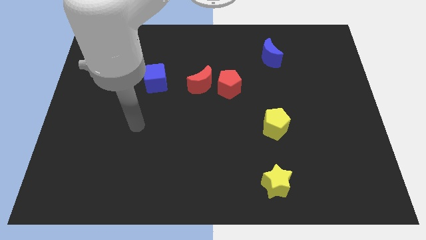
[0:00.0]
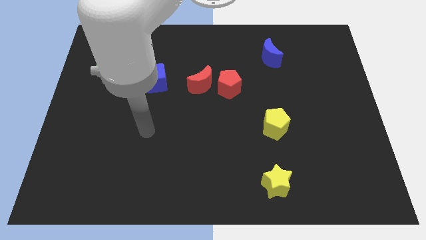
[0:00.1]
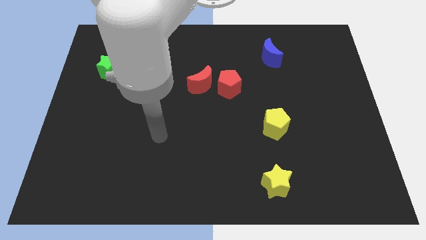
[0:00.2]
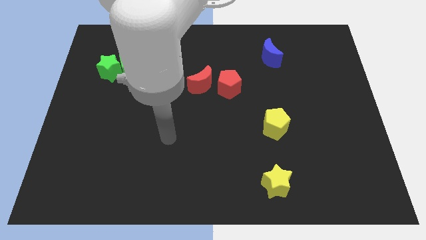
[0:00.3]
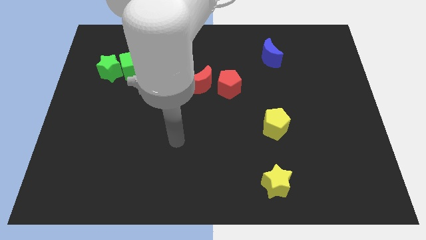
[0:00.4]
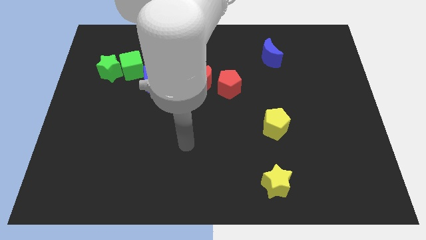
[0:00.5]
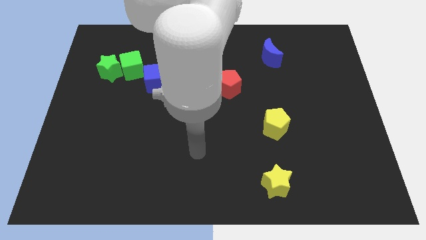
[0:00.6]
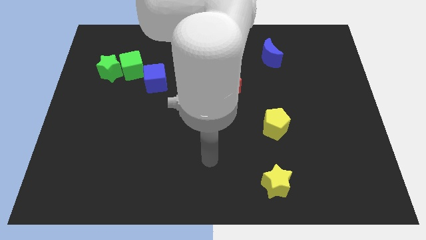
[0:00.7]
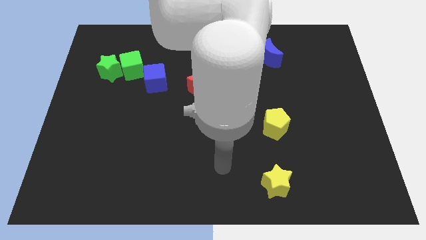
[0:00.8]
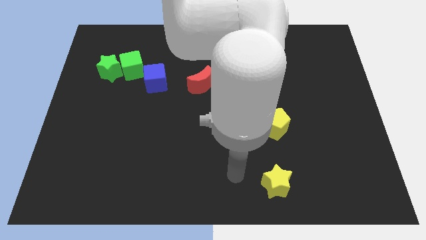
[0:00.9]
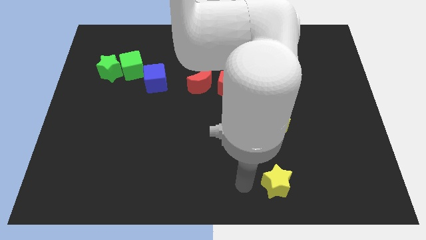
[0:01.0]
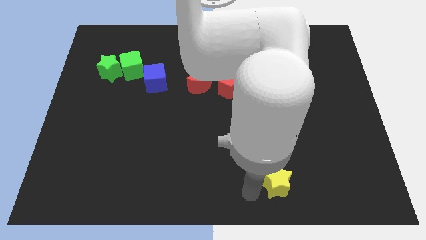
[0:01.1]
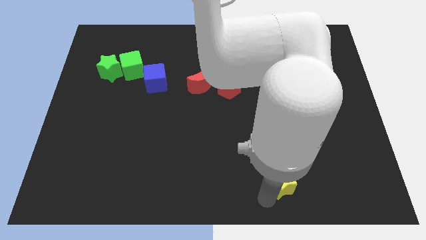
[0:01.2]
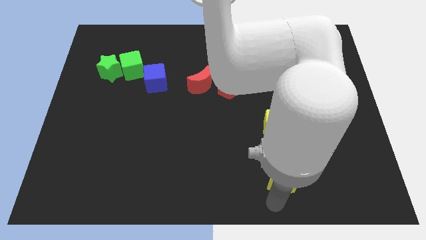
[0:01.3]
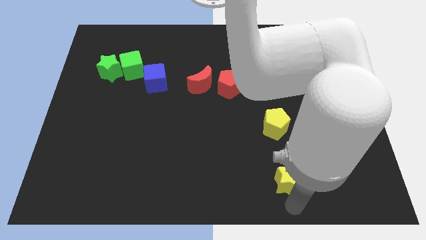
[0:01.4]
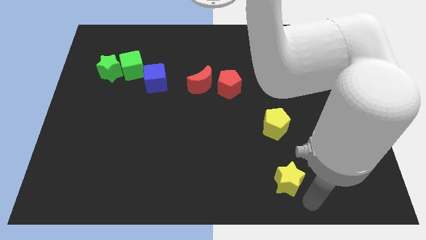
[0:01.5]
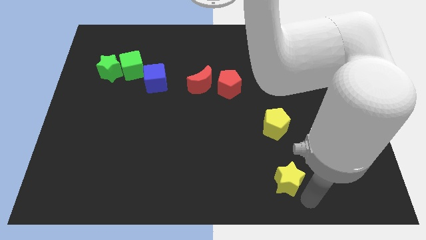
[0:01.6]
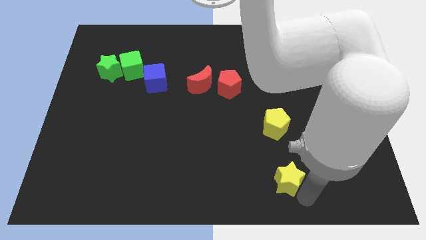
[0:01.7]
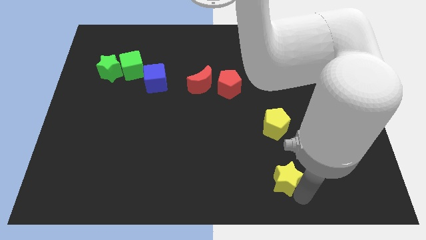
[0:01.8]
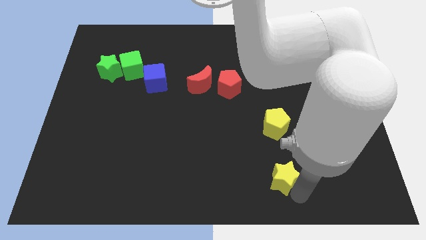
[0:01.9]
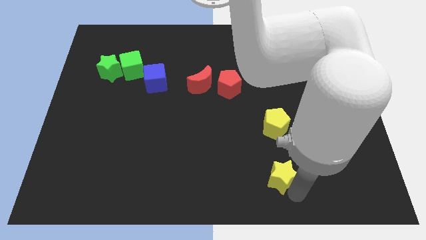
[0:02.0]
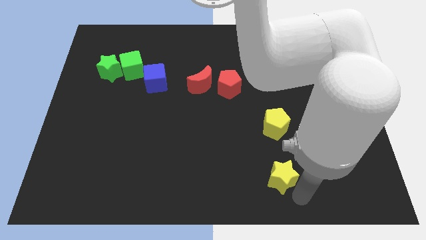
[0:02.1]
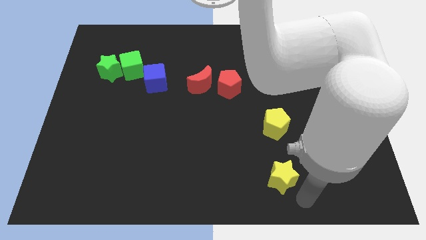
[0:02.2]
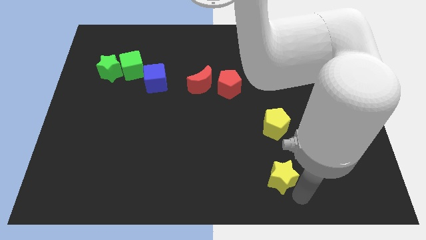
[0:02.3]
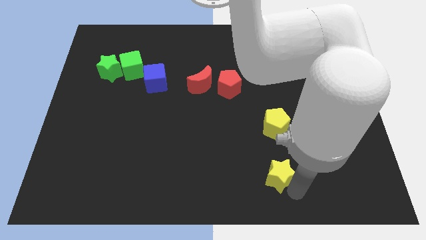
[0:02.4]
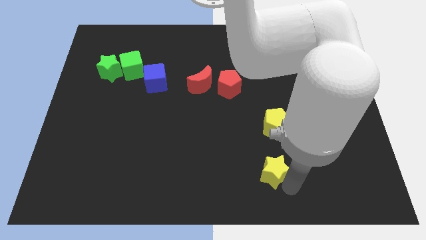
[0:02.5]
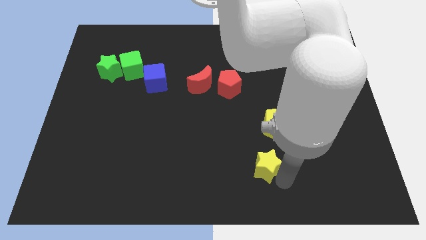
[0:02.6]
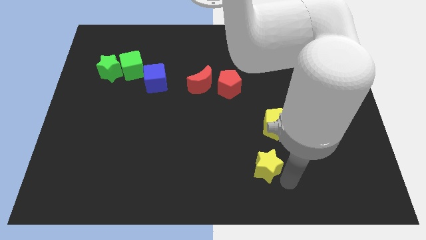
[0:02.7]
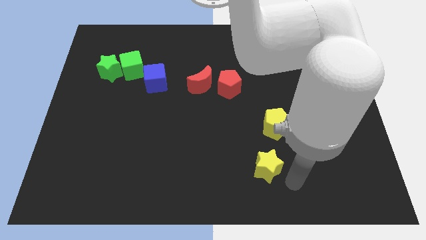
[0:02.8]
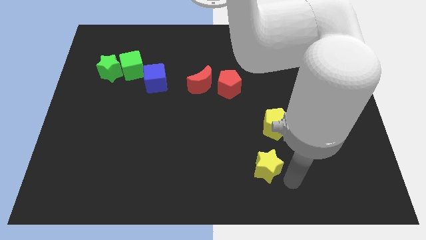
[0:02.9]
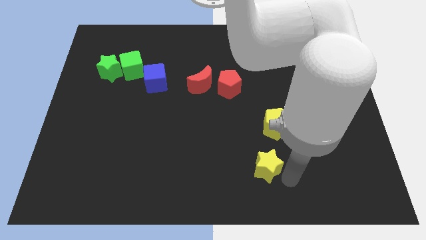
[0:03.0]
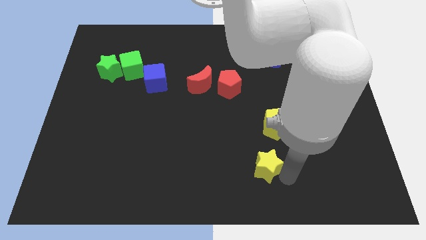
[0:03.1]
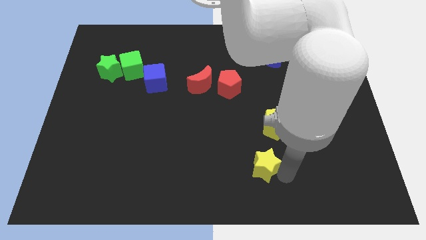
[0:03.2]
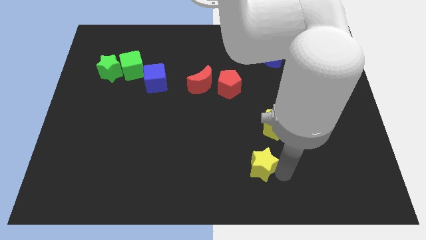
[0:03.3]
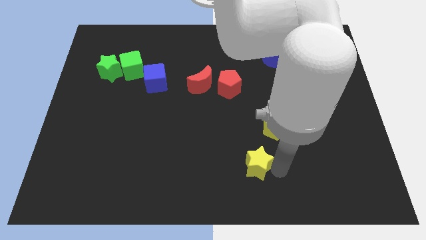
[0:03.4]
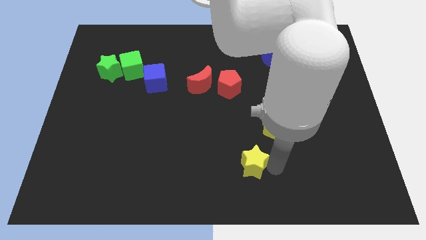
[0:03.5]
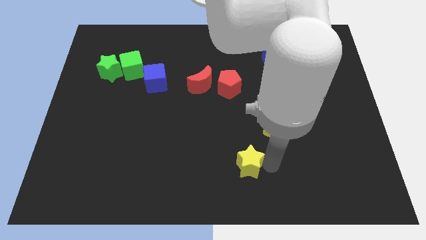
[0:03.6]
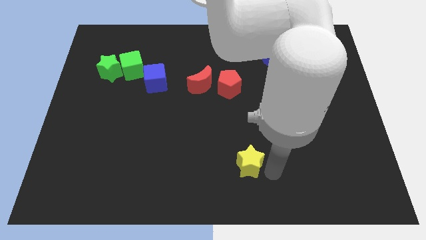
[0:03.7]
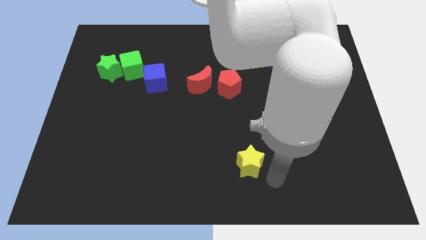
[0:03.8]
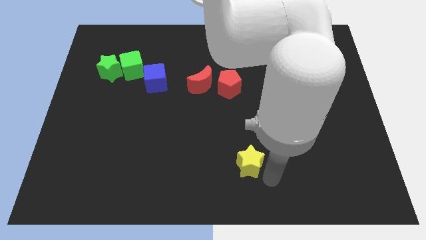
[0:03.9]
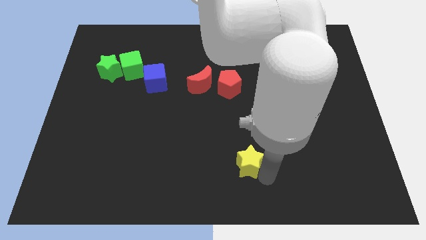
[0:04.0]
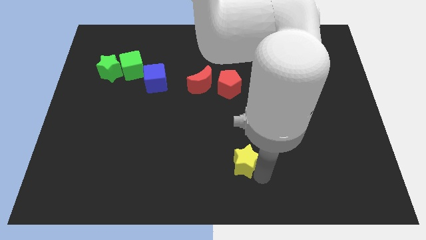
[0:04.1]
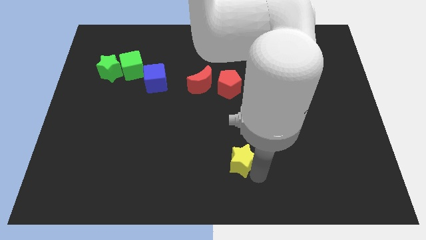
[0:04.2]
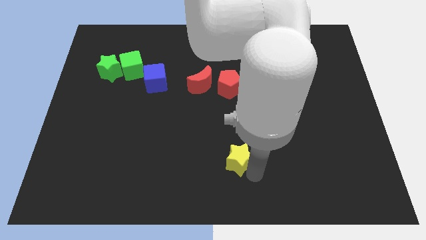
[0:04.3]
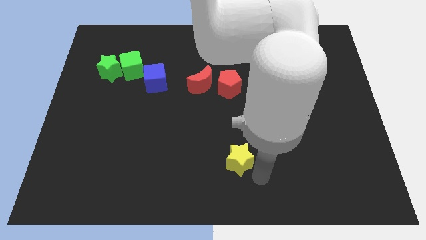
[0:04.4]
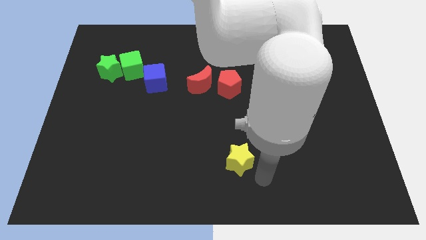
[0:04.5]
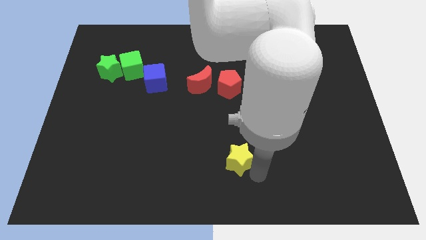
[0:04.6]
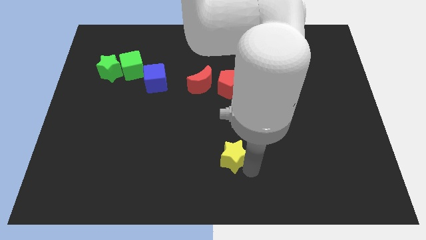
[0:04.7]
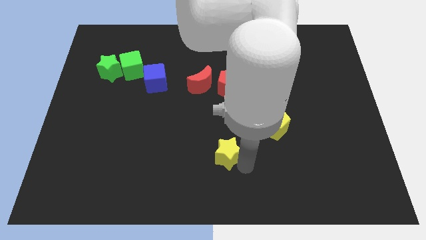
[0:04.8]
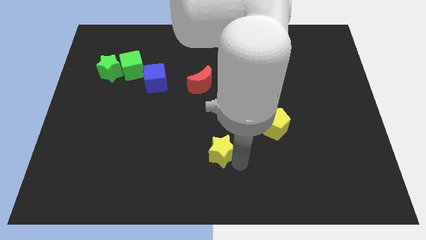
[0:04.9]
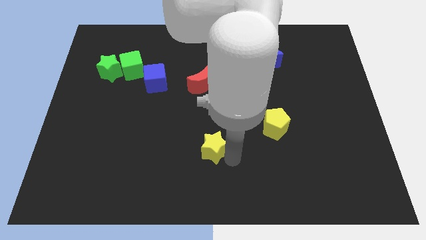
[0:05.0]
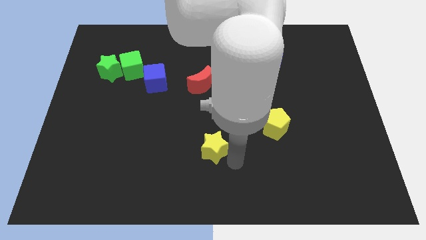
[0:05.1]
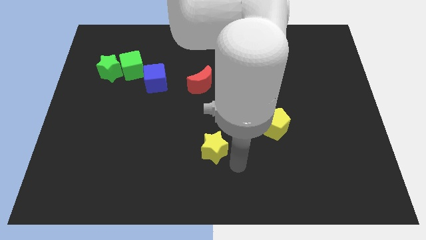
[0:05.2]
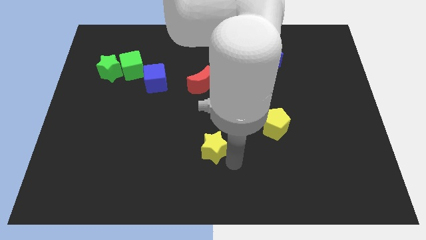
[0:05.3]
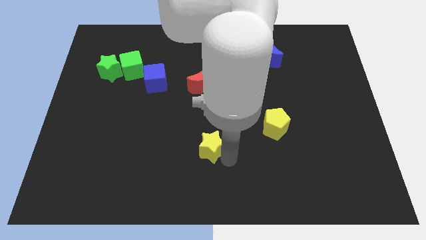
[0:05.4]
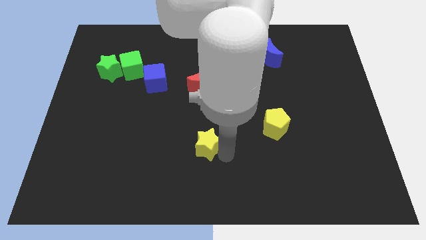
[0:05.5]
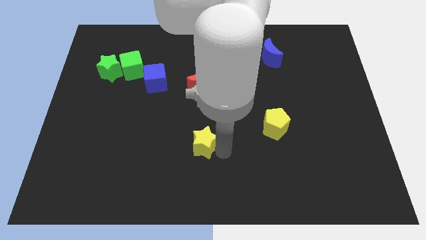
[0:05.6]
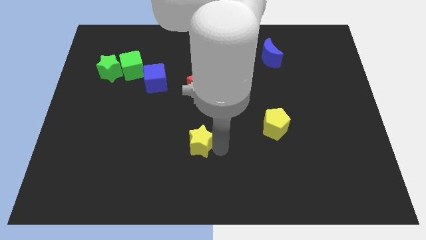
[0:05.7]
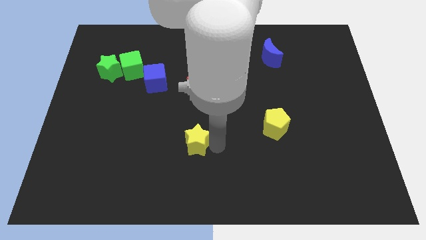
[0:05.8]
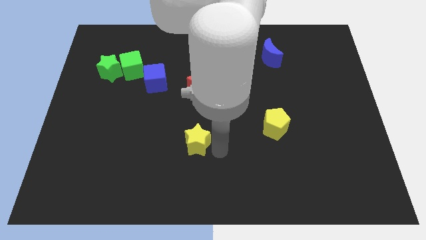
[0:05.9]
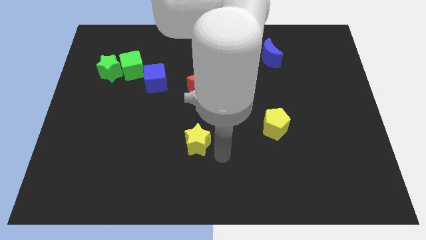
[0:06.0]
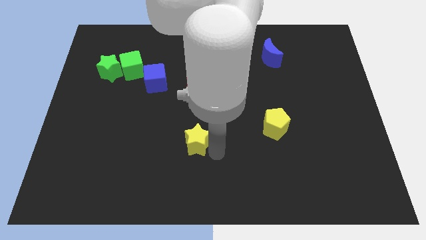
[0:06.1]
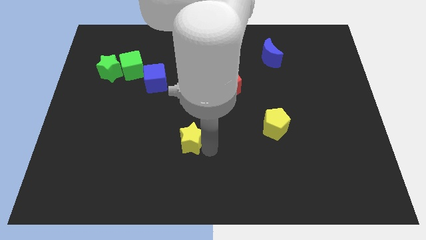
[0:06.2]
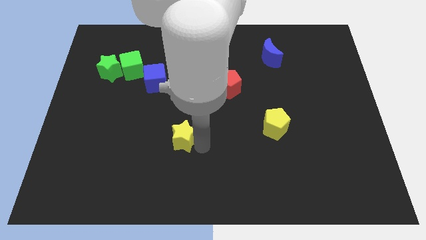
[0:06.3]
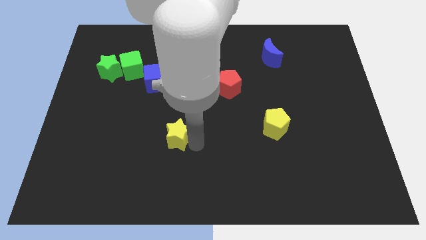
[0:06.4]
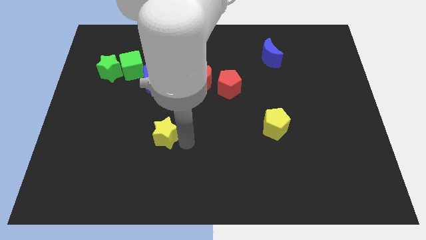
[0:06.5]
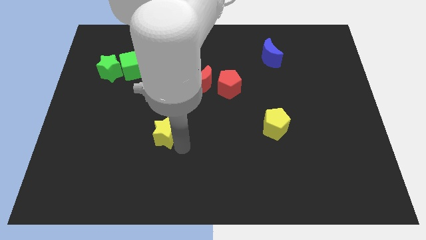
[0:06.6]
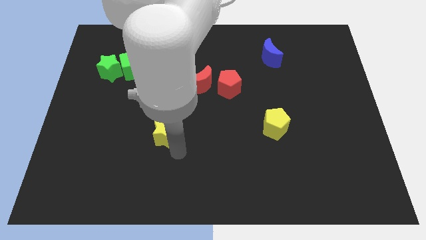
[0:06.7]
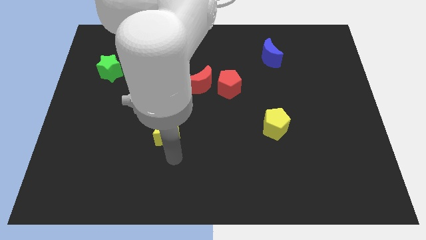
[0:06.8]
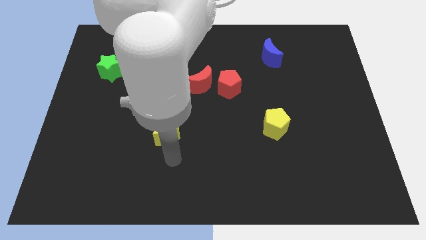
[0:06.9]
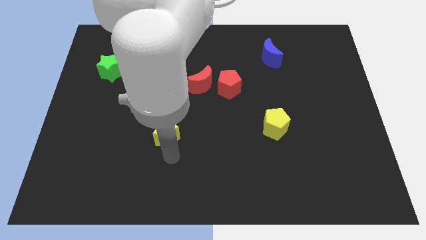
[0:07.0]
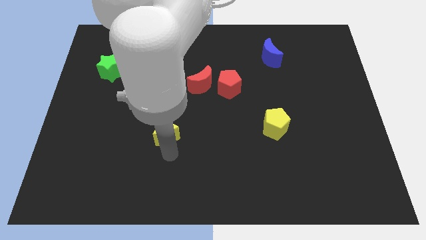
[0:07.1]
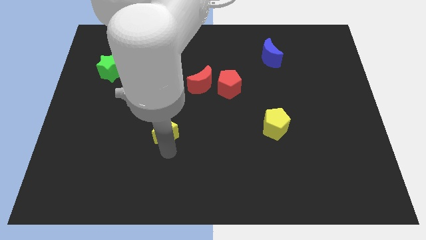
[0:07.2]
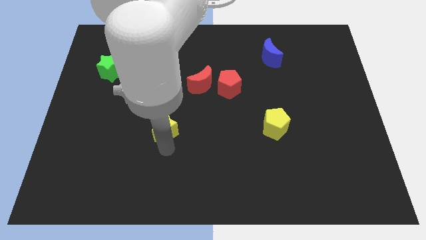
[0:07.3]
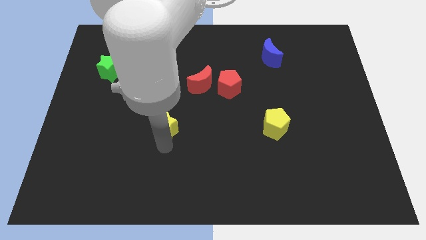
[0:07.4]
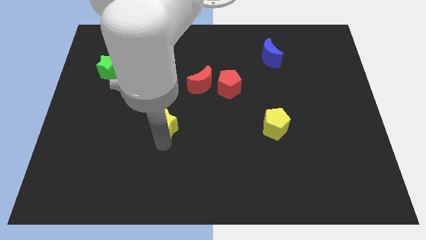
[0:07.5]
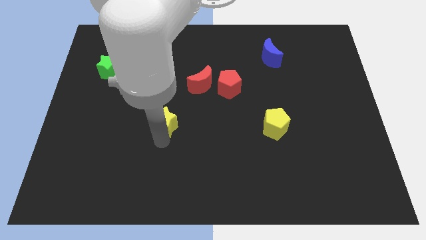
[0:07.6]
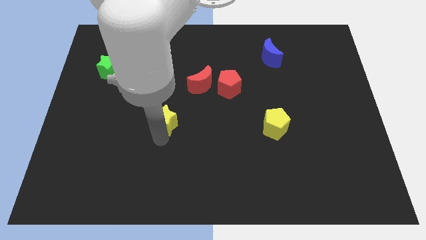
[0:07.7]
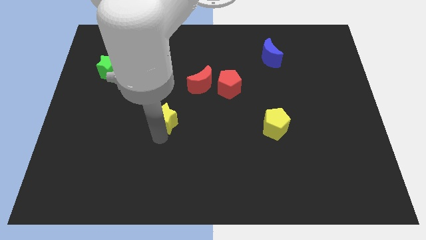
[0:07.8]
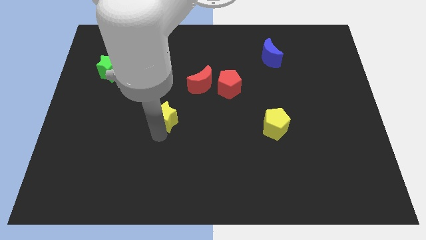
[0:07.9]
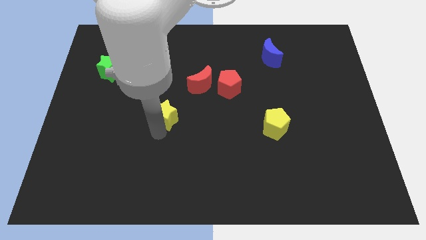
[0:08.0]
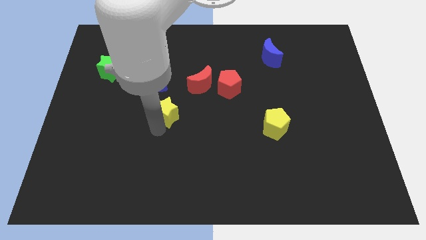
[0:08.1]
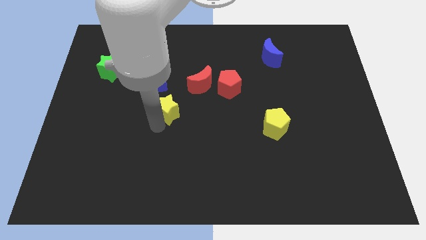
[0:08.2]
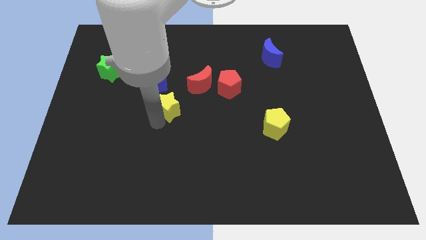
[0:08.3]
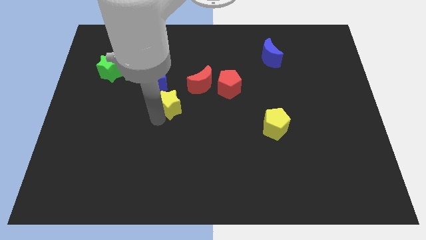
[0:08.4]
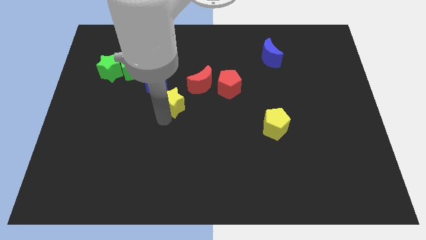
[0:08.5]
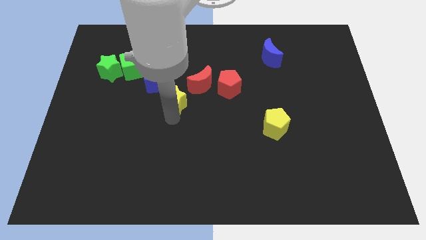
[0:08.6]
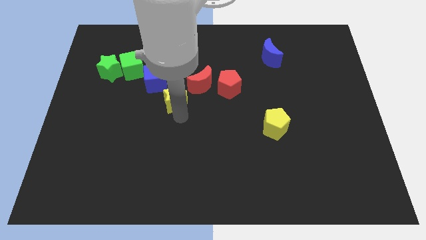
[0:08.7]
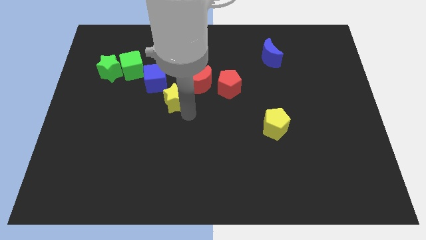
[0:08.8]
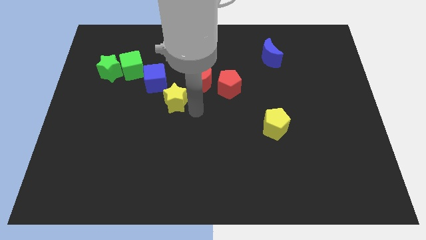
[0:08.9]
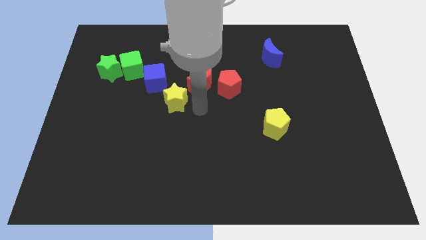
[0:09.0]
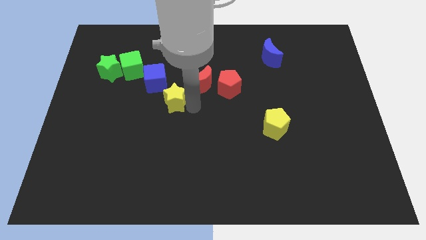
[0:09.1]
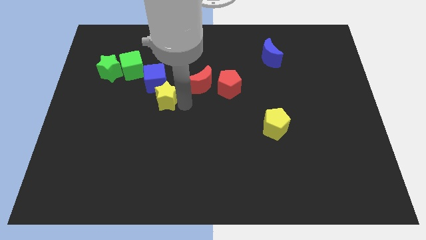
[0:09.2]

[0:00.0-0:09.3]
push the yellow star just left of the red moon
